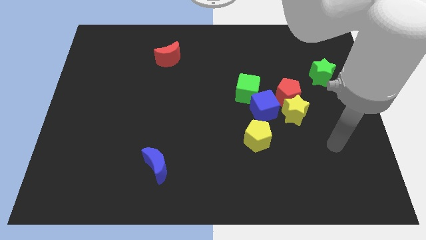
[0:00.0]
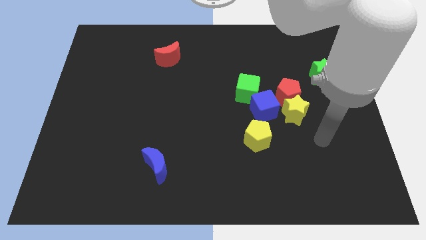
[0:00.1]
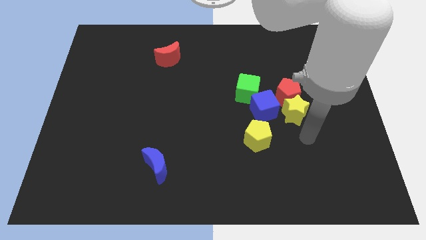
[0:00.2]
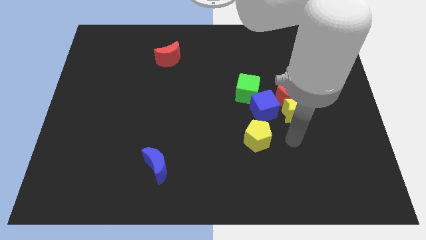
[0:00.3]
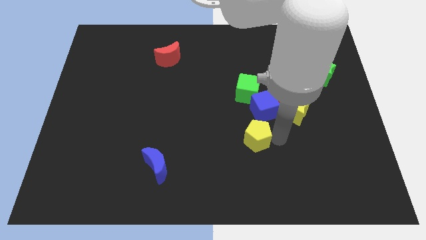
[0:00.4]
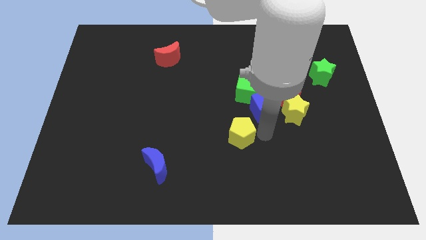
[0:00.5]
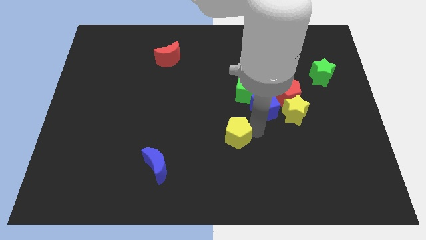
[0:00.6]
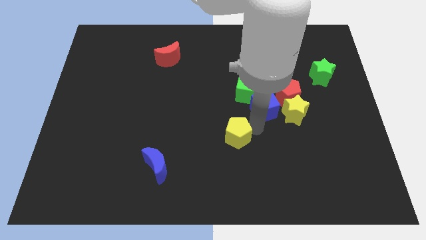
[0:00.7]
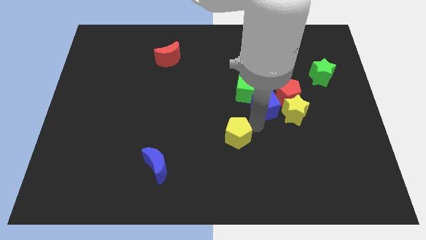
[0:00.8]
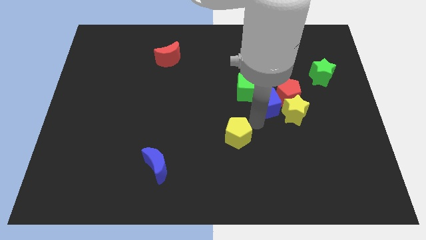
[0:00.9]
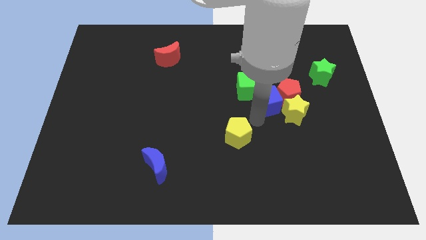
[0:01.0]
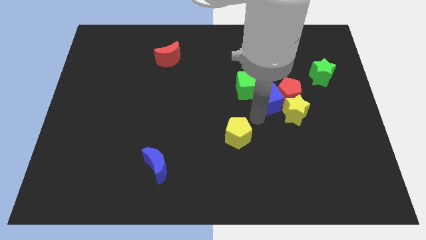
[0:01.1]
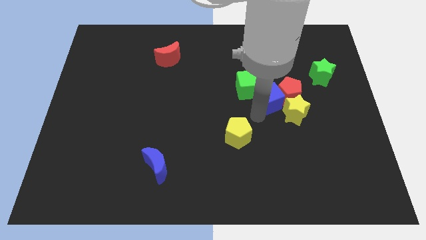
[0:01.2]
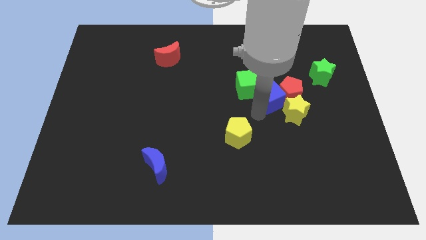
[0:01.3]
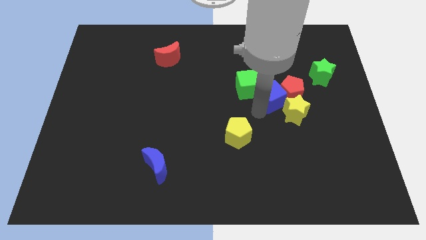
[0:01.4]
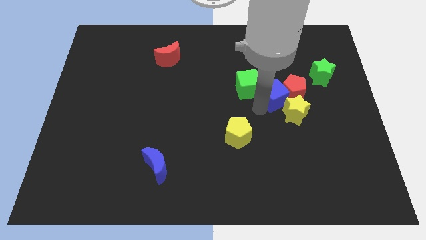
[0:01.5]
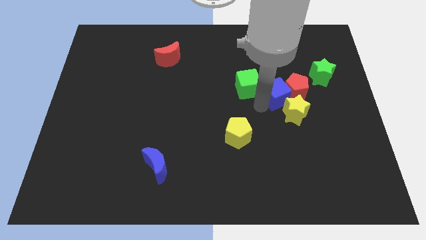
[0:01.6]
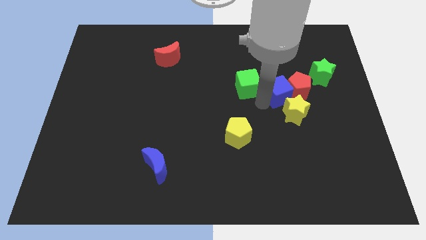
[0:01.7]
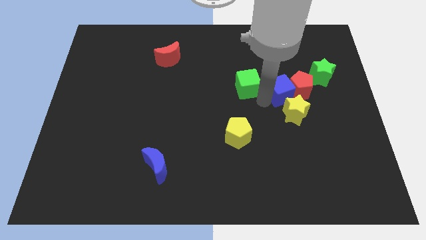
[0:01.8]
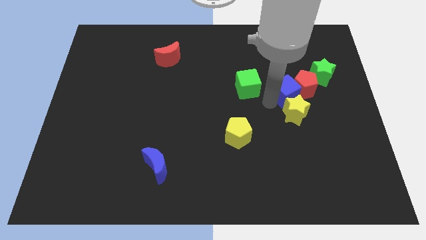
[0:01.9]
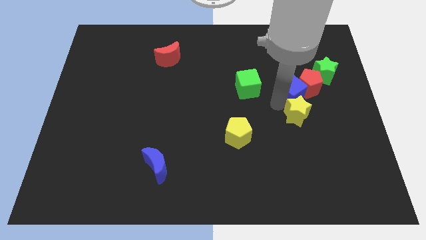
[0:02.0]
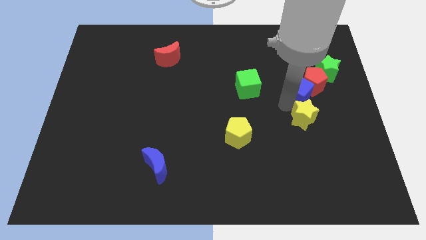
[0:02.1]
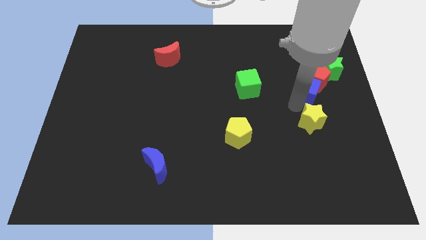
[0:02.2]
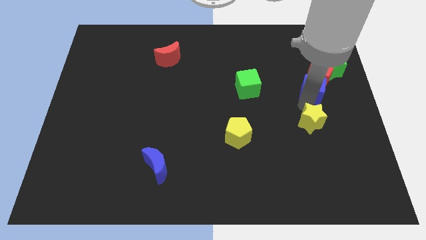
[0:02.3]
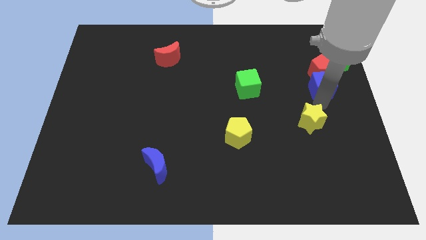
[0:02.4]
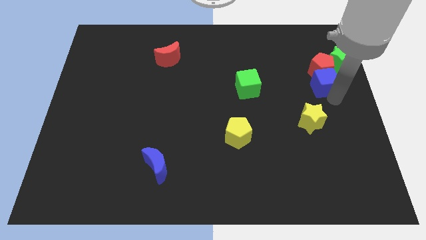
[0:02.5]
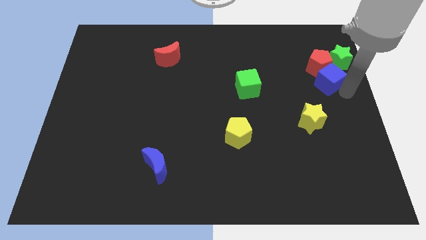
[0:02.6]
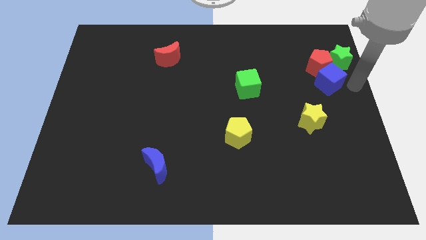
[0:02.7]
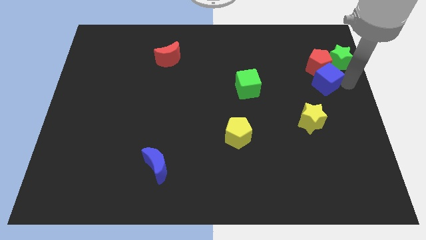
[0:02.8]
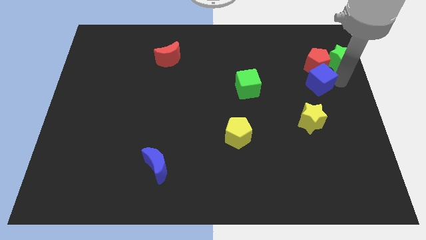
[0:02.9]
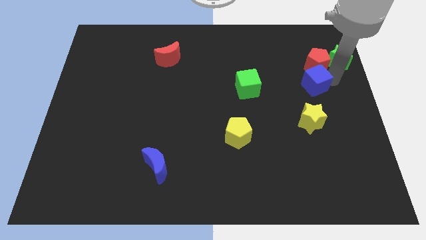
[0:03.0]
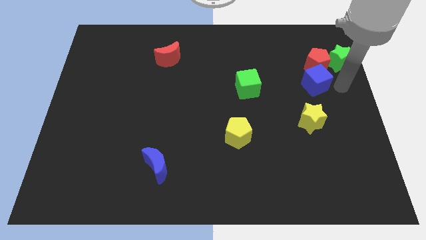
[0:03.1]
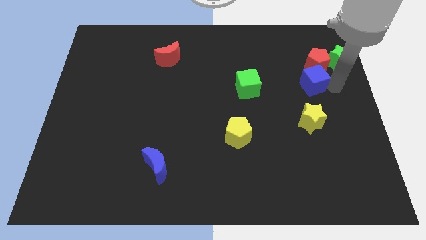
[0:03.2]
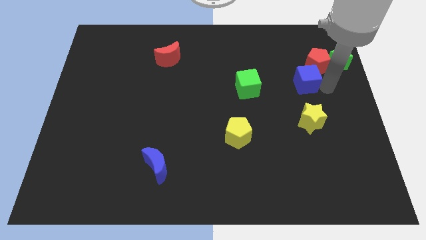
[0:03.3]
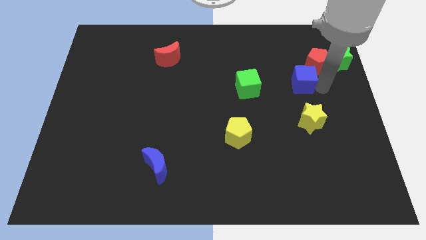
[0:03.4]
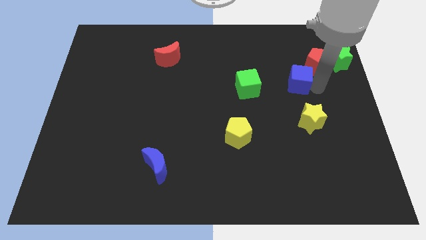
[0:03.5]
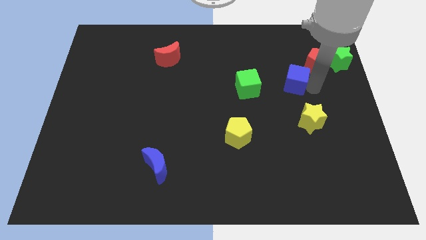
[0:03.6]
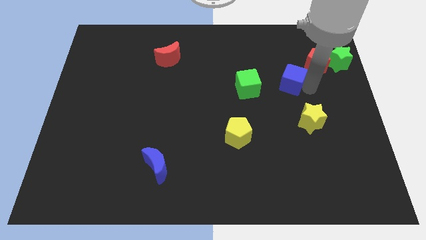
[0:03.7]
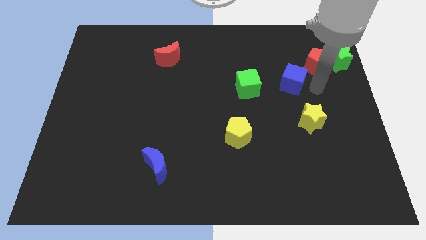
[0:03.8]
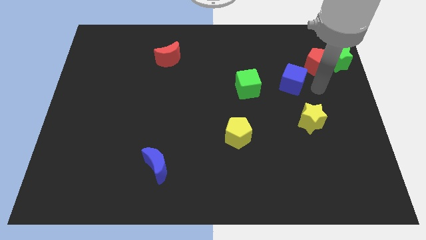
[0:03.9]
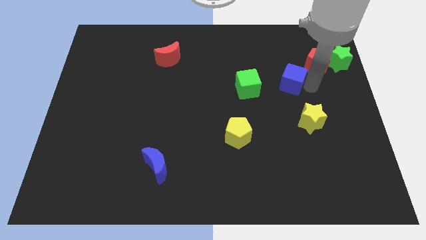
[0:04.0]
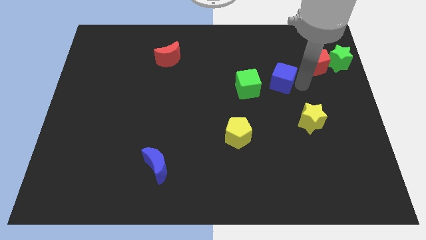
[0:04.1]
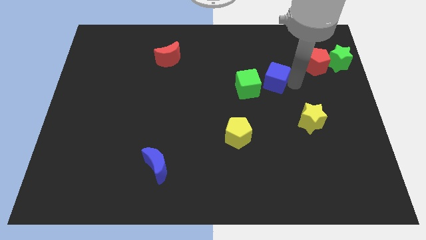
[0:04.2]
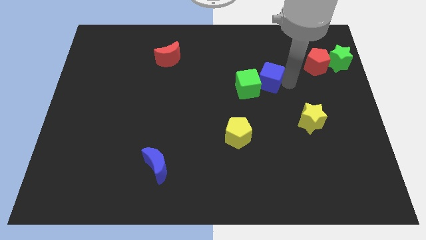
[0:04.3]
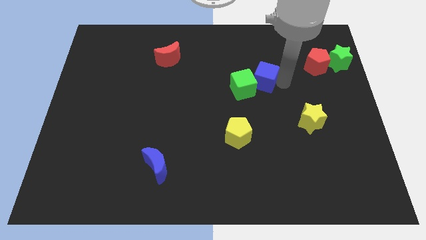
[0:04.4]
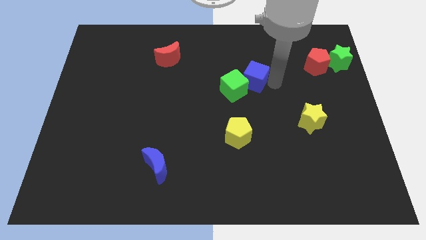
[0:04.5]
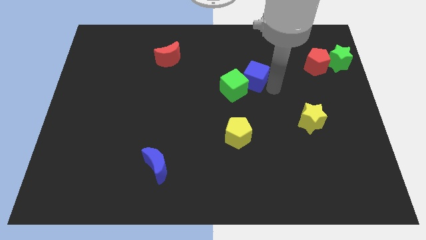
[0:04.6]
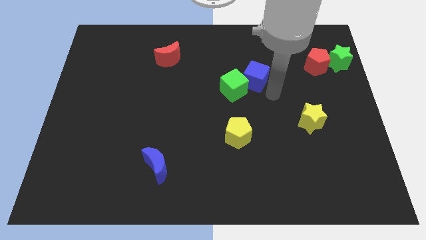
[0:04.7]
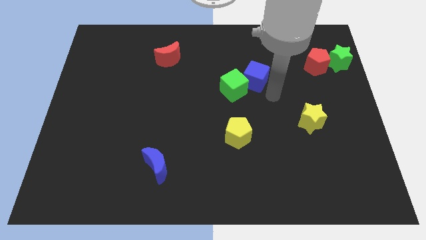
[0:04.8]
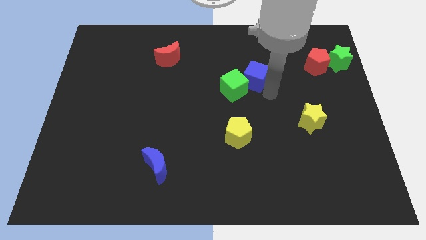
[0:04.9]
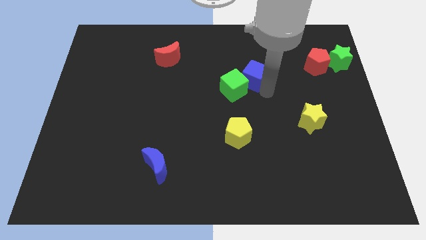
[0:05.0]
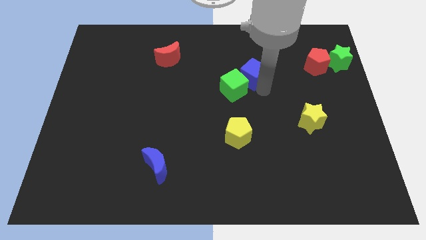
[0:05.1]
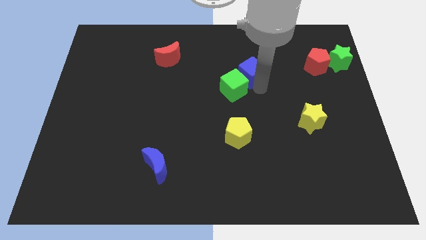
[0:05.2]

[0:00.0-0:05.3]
move the blue cube to the top side of the green cube

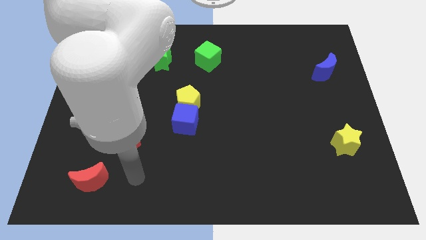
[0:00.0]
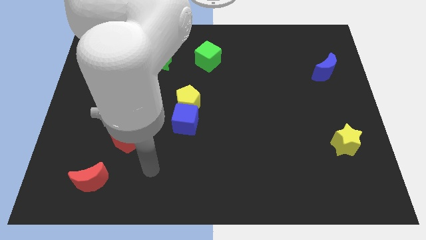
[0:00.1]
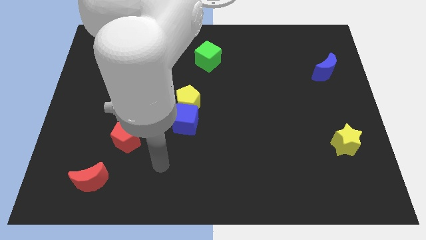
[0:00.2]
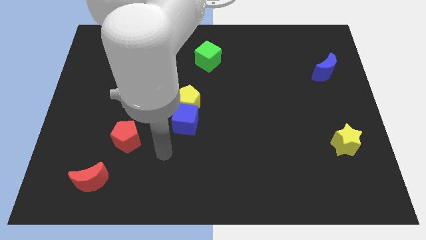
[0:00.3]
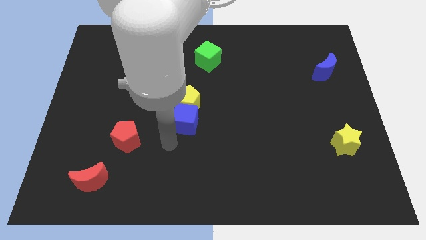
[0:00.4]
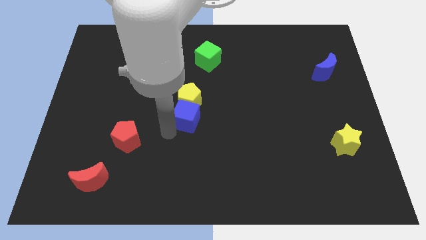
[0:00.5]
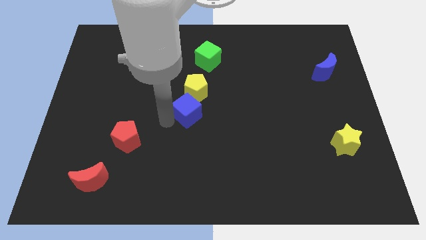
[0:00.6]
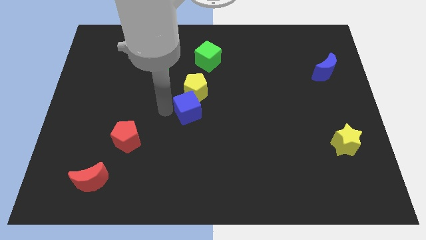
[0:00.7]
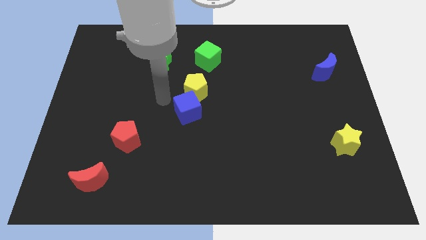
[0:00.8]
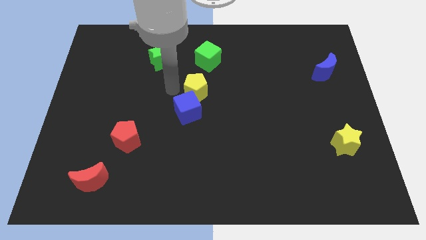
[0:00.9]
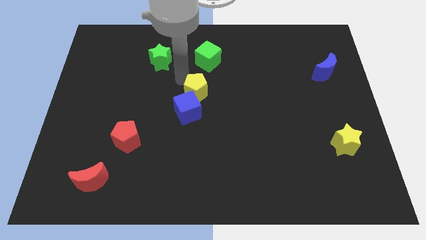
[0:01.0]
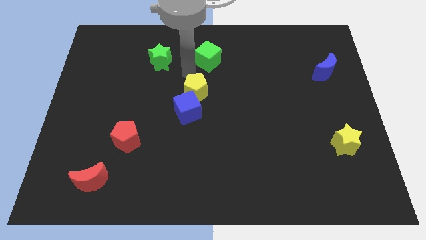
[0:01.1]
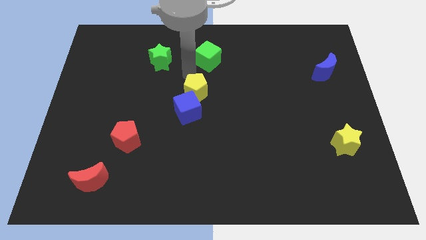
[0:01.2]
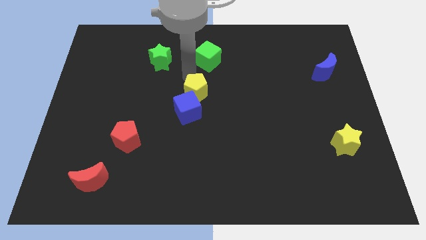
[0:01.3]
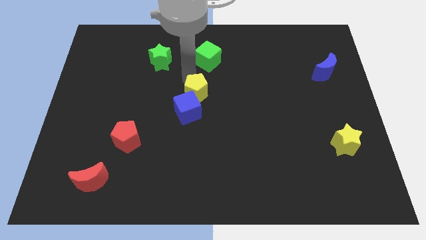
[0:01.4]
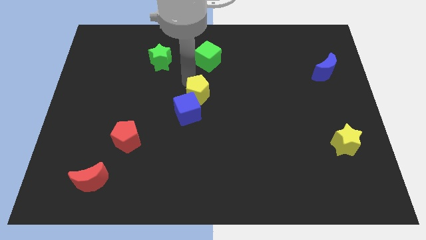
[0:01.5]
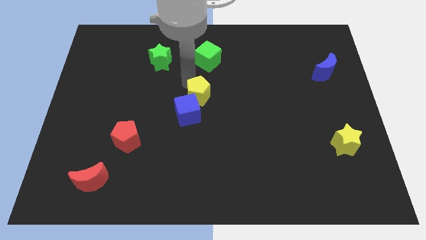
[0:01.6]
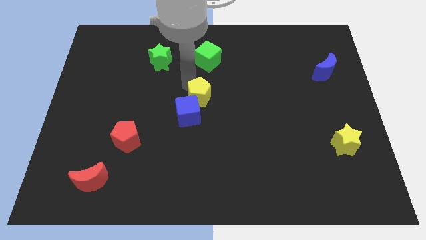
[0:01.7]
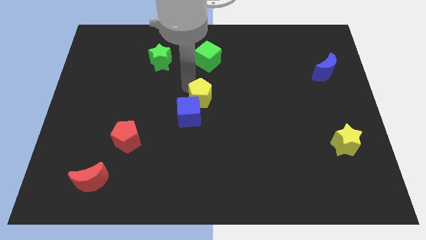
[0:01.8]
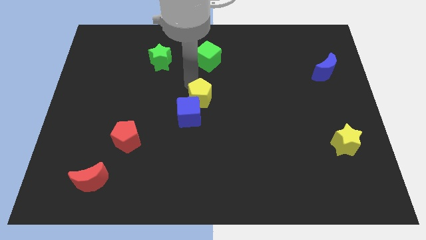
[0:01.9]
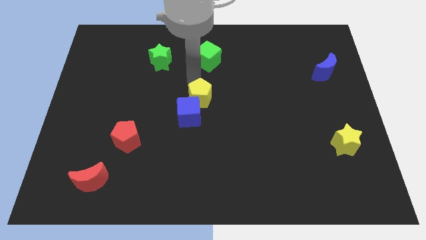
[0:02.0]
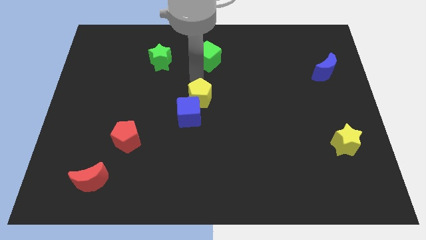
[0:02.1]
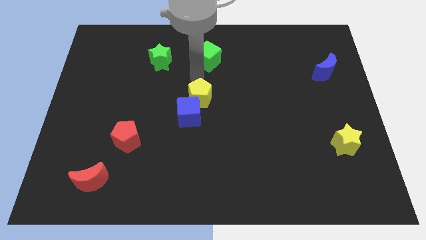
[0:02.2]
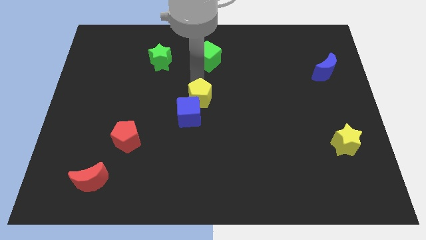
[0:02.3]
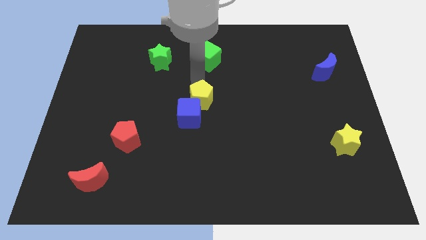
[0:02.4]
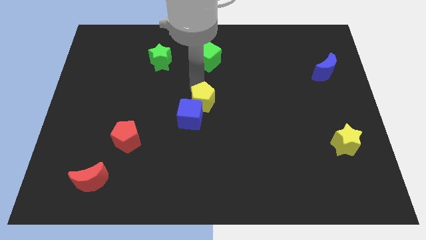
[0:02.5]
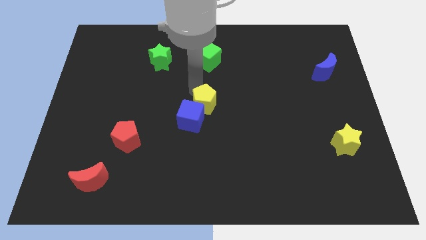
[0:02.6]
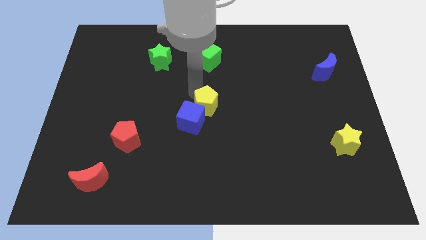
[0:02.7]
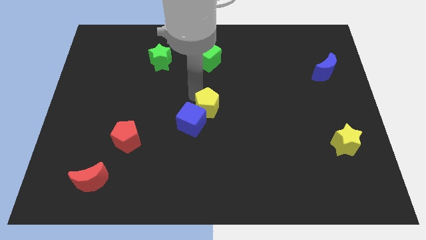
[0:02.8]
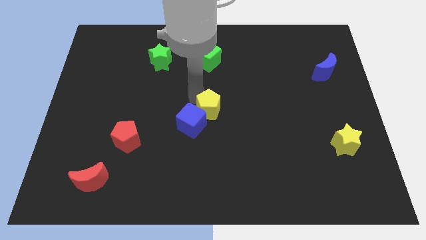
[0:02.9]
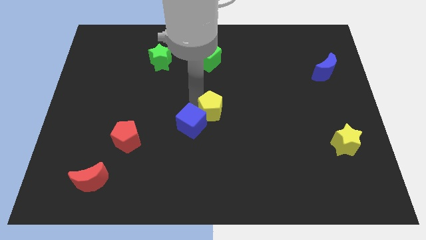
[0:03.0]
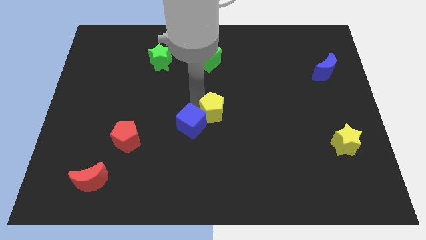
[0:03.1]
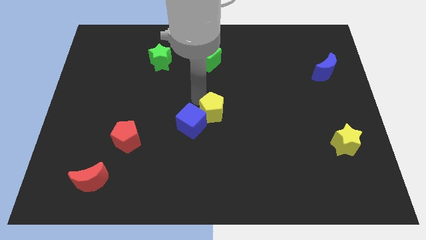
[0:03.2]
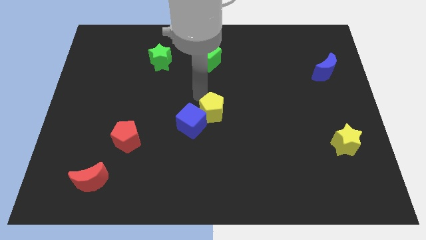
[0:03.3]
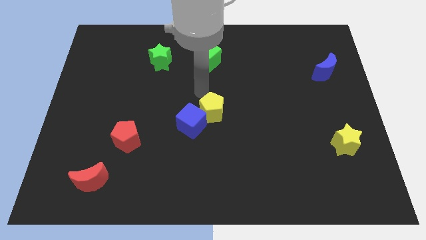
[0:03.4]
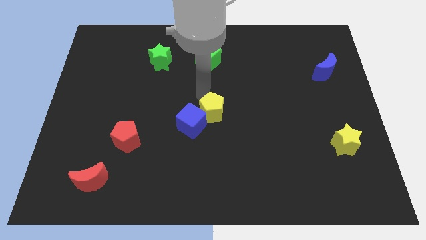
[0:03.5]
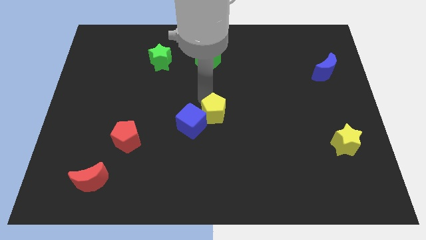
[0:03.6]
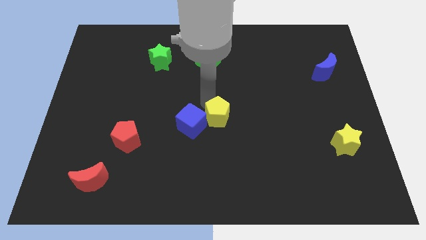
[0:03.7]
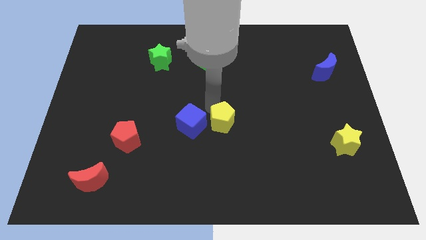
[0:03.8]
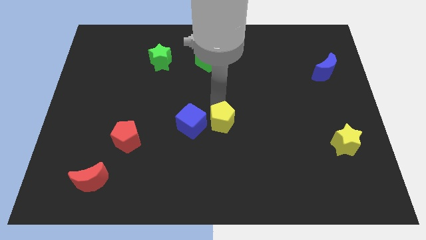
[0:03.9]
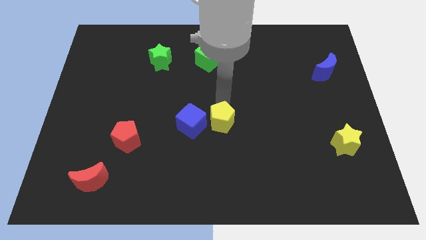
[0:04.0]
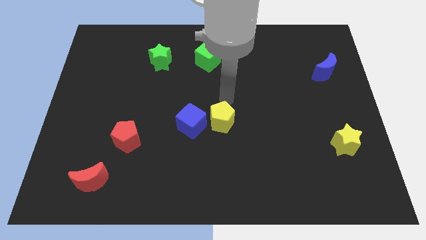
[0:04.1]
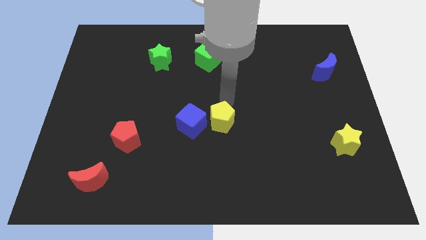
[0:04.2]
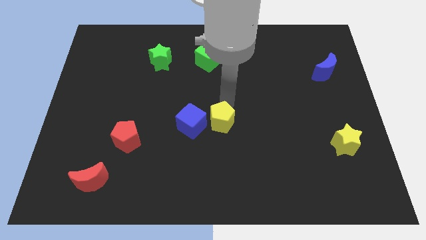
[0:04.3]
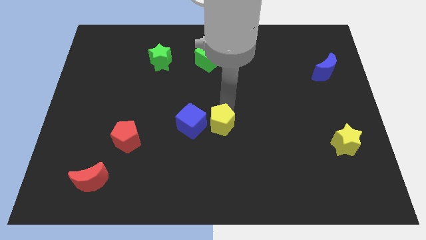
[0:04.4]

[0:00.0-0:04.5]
put the yellow pentagon to the bottom right side of the blue cube
